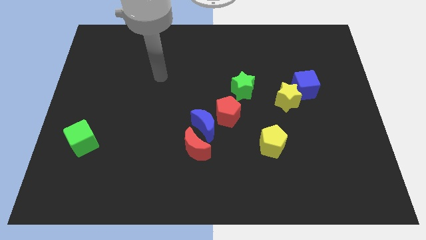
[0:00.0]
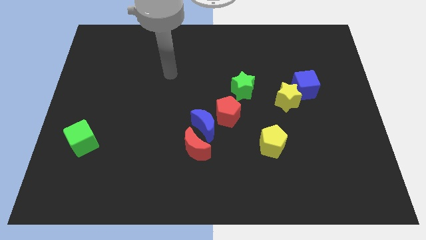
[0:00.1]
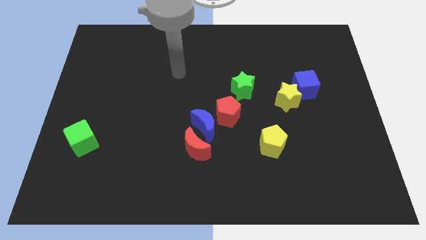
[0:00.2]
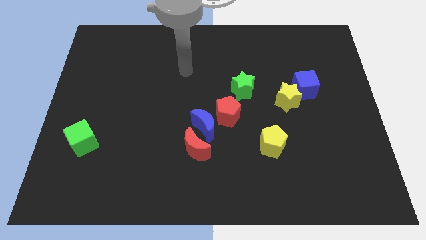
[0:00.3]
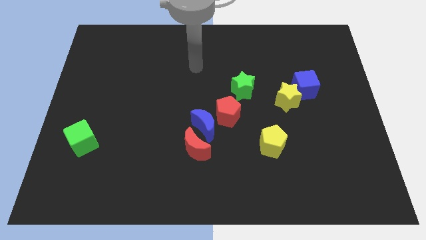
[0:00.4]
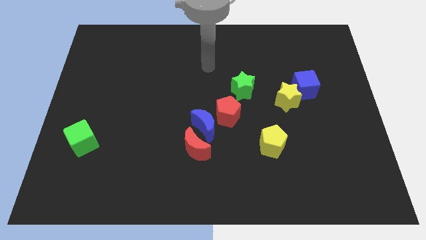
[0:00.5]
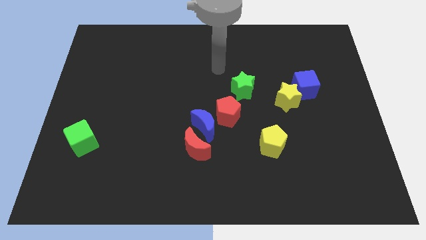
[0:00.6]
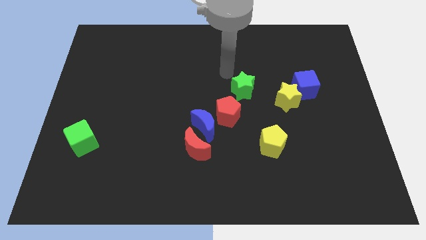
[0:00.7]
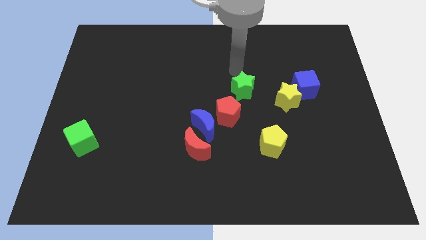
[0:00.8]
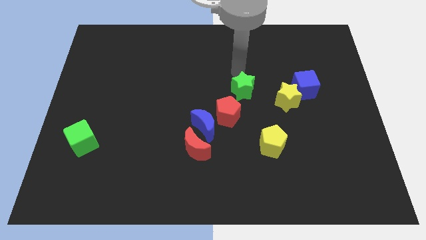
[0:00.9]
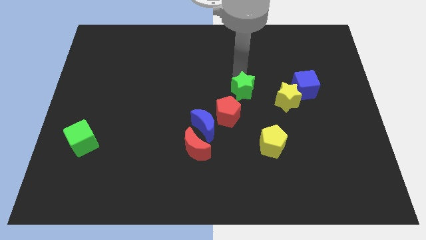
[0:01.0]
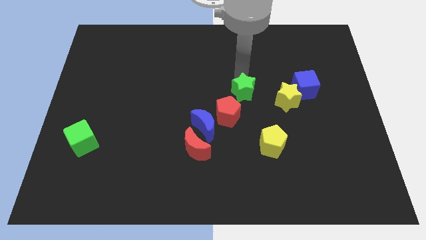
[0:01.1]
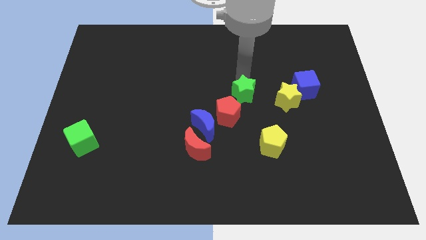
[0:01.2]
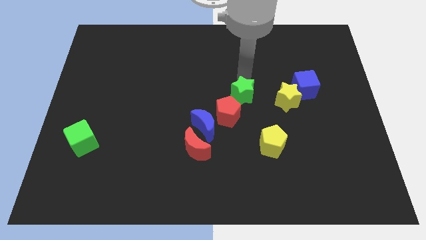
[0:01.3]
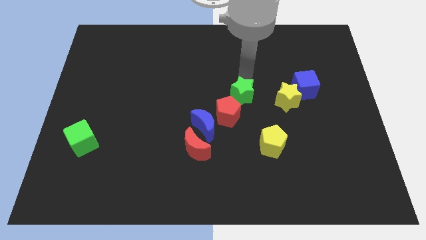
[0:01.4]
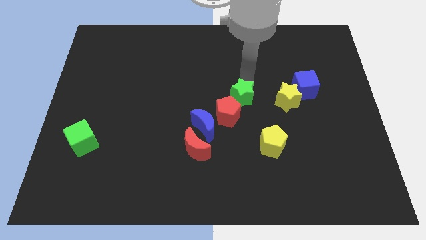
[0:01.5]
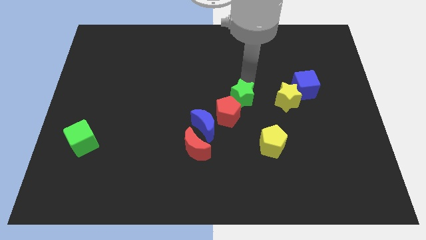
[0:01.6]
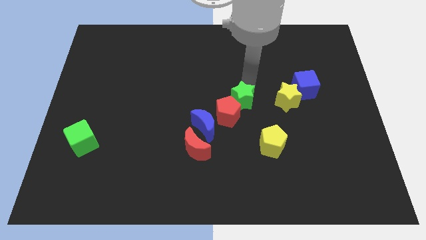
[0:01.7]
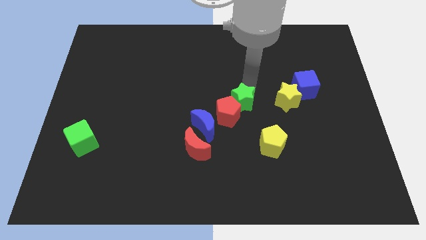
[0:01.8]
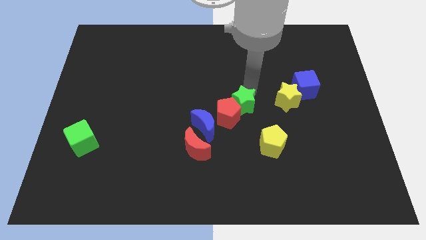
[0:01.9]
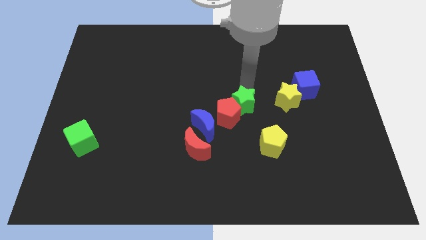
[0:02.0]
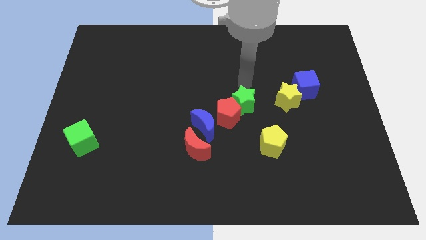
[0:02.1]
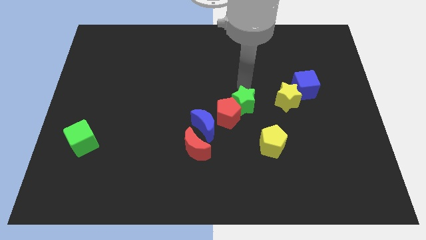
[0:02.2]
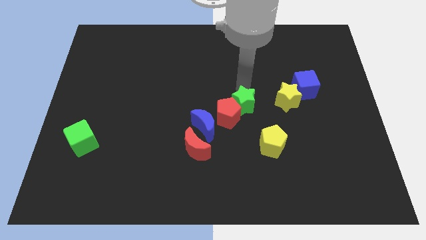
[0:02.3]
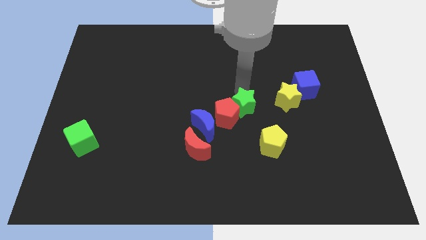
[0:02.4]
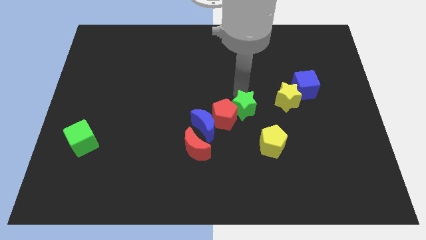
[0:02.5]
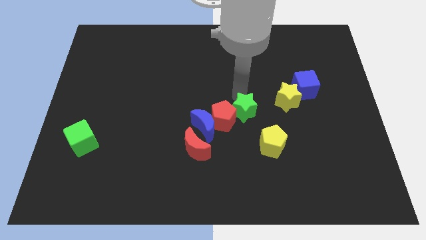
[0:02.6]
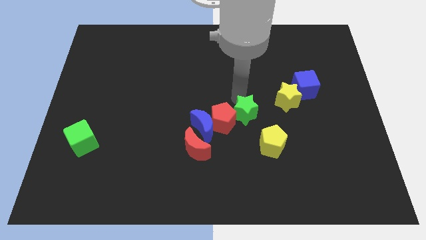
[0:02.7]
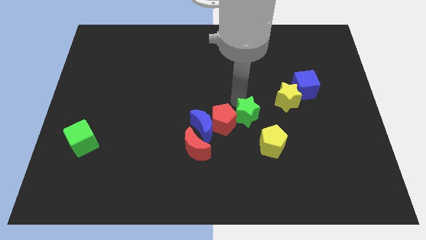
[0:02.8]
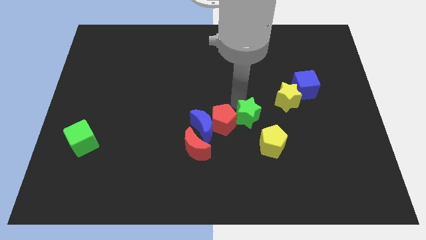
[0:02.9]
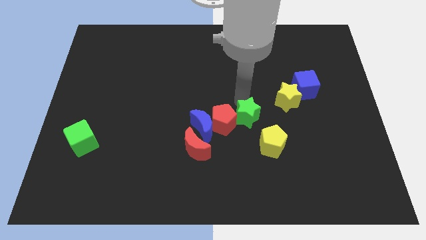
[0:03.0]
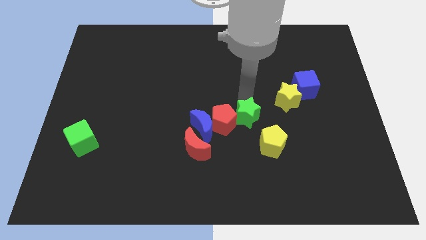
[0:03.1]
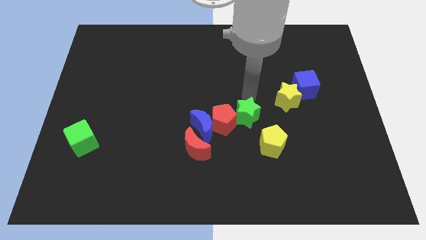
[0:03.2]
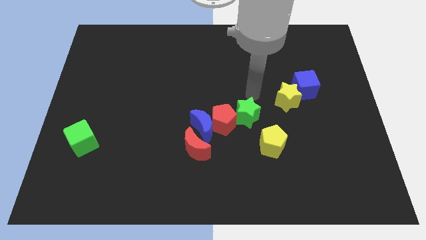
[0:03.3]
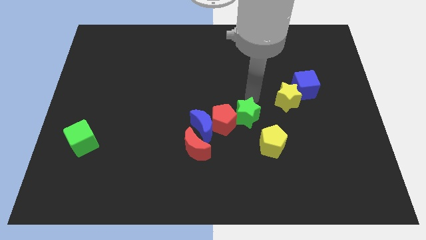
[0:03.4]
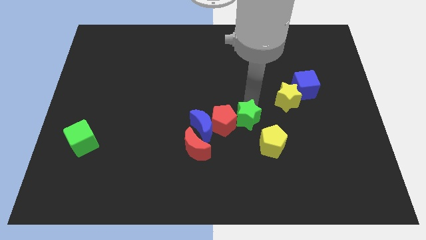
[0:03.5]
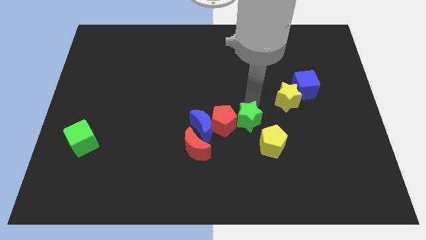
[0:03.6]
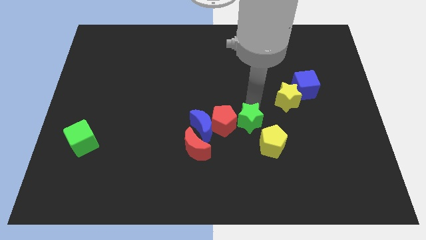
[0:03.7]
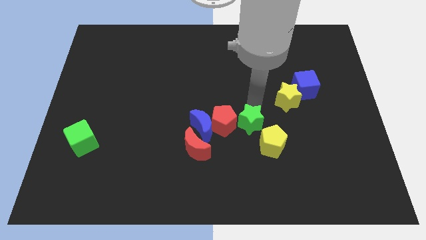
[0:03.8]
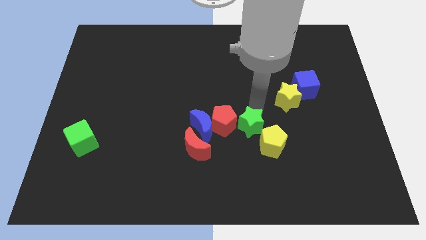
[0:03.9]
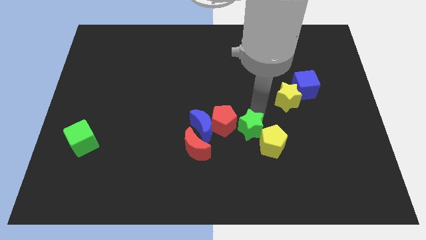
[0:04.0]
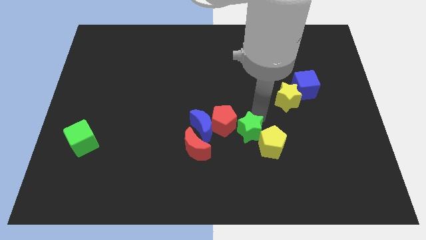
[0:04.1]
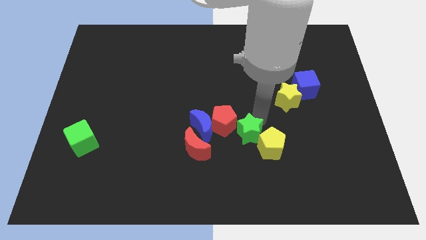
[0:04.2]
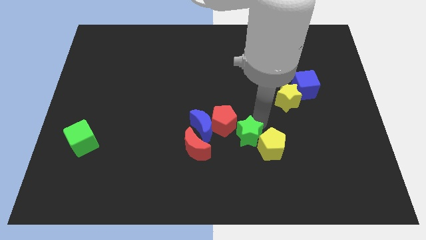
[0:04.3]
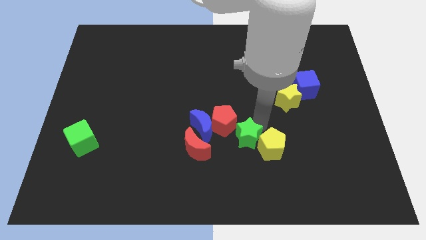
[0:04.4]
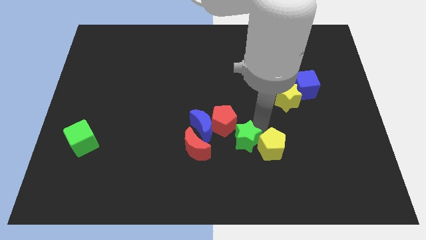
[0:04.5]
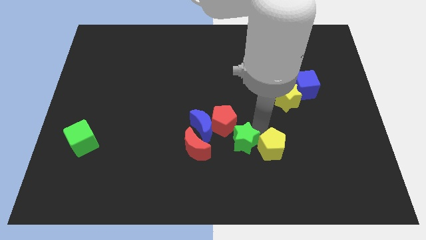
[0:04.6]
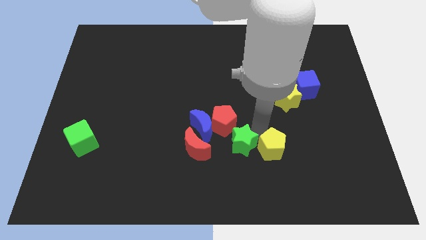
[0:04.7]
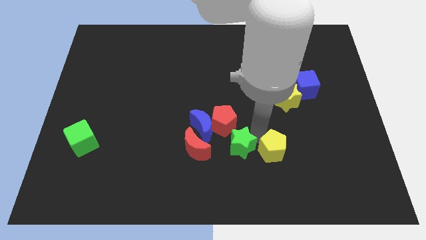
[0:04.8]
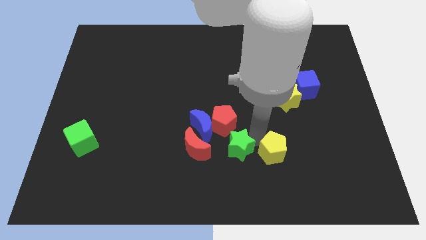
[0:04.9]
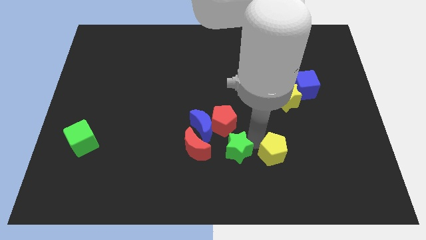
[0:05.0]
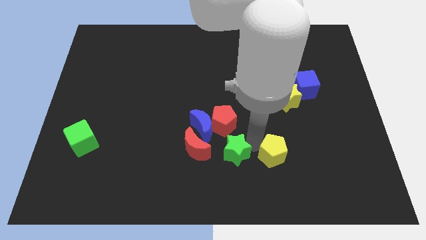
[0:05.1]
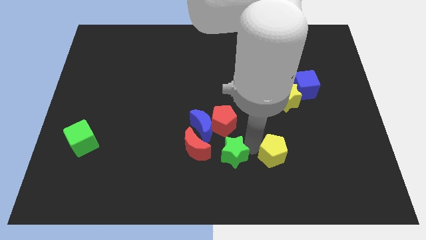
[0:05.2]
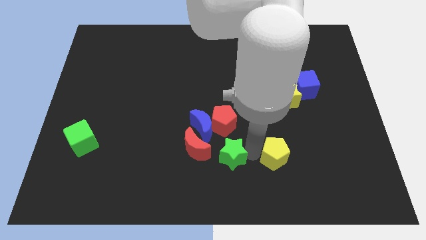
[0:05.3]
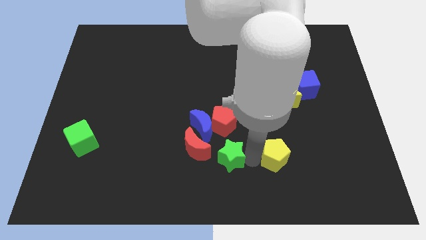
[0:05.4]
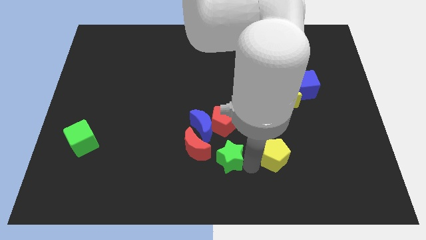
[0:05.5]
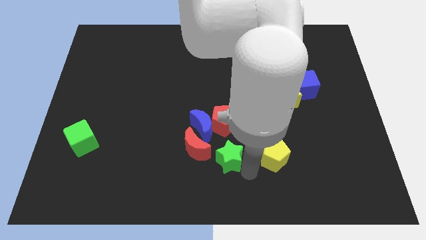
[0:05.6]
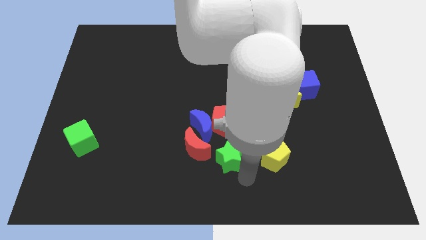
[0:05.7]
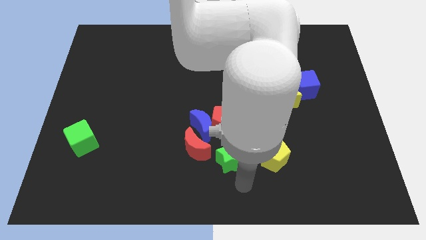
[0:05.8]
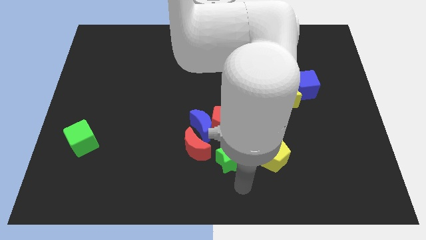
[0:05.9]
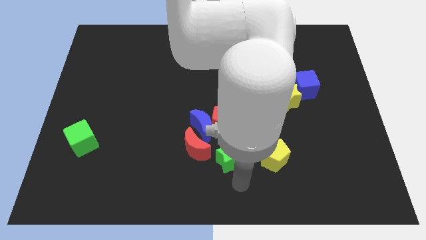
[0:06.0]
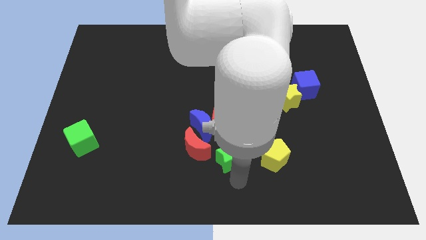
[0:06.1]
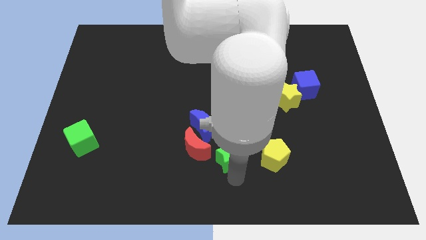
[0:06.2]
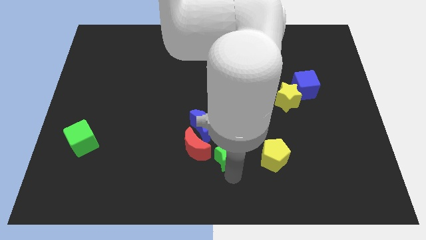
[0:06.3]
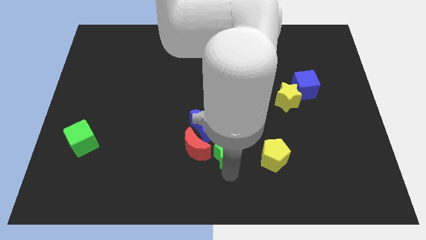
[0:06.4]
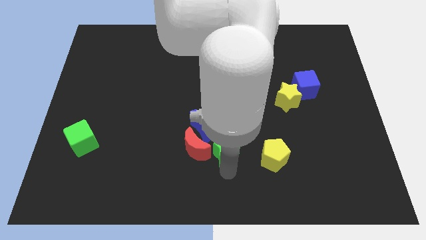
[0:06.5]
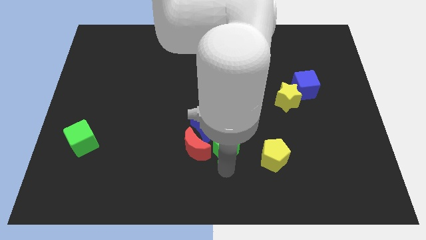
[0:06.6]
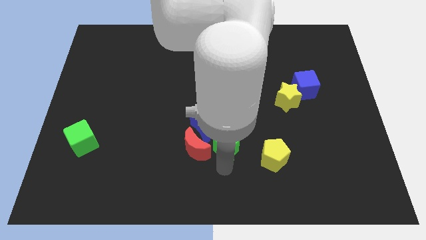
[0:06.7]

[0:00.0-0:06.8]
slide the green star towards the red moon

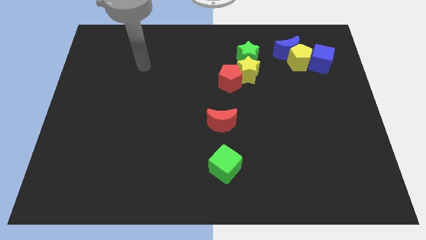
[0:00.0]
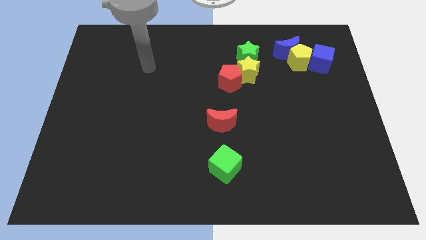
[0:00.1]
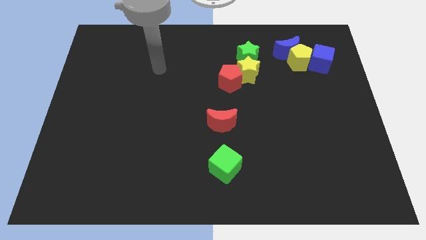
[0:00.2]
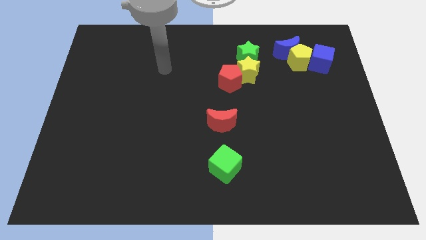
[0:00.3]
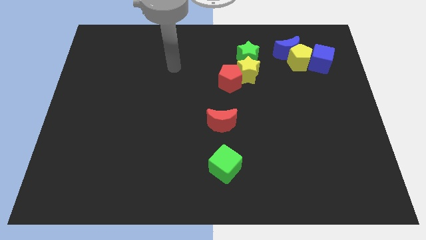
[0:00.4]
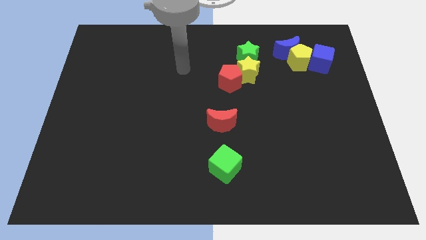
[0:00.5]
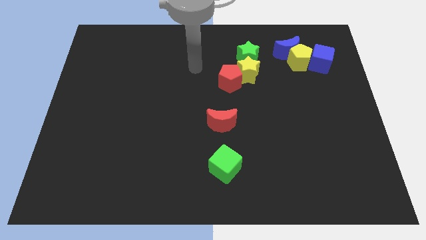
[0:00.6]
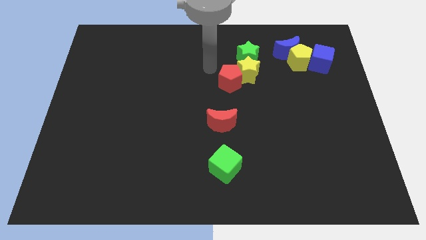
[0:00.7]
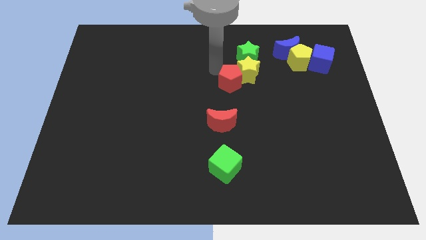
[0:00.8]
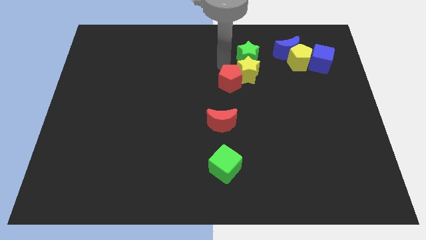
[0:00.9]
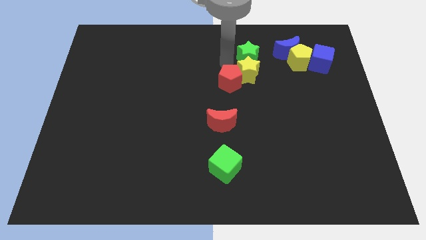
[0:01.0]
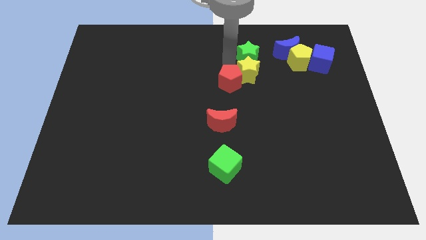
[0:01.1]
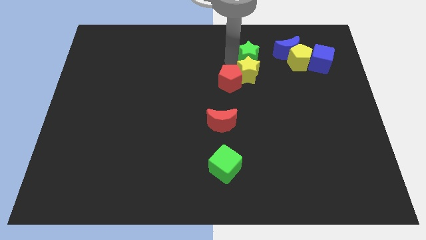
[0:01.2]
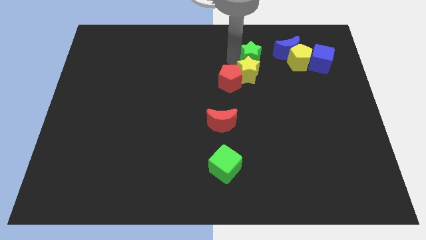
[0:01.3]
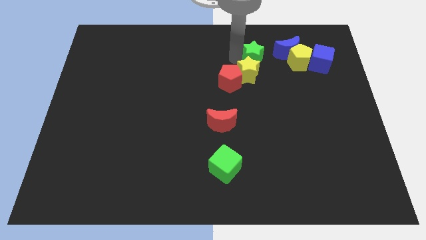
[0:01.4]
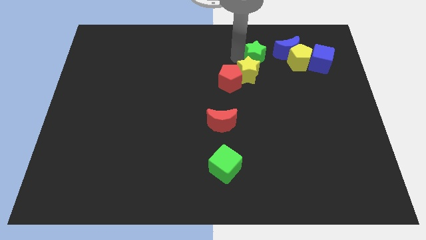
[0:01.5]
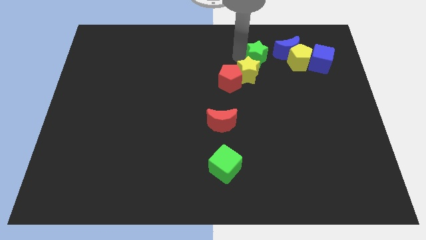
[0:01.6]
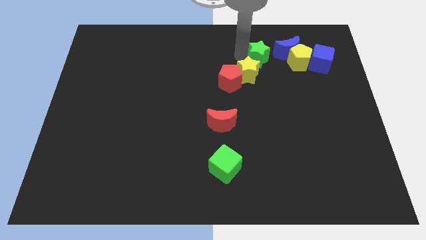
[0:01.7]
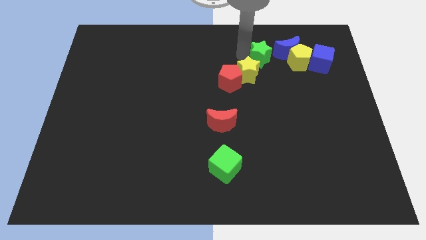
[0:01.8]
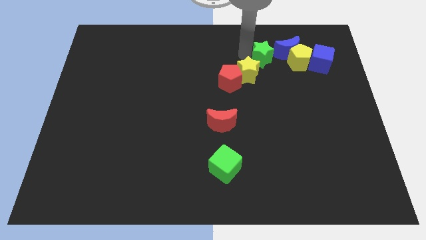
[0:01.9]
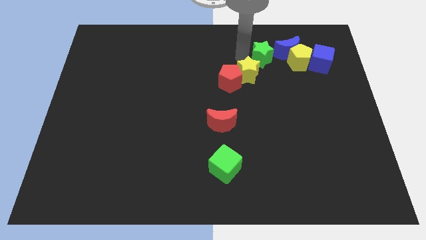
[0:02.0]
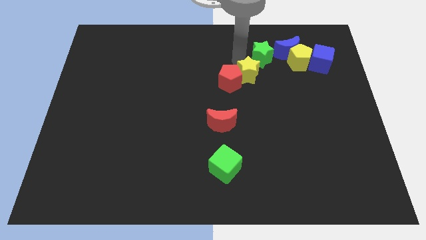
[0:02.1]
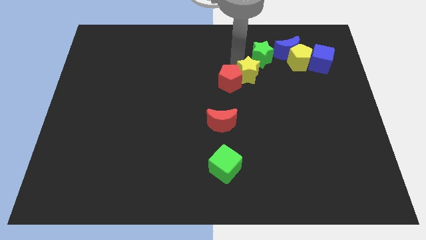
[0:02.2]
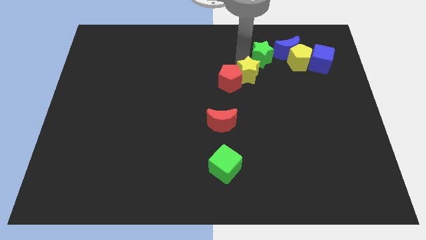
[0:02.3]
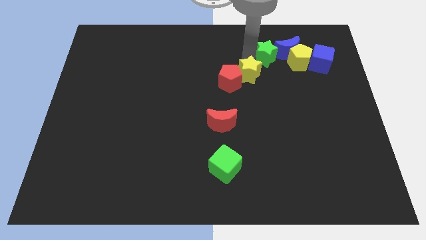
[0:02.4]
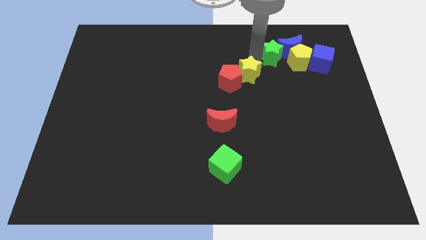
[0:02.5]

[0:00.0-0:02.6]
slide the green star close to the blue moon
